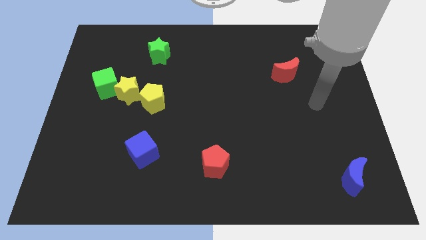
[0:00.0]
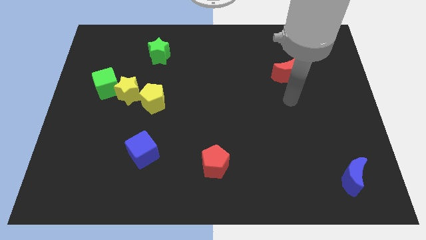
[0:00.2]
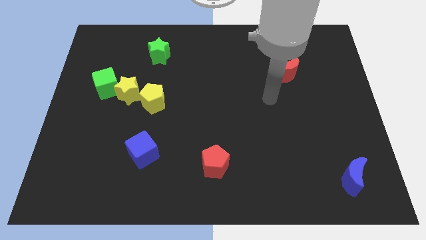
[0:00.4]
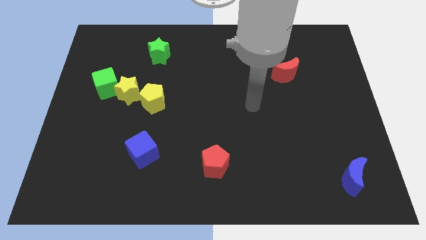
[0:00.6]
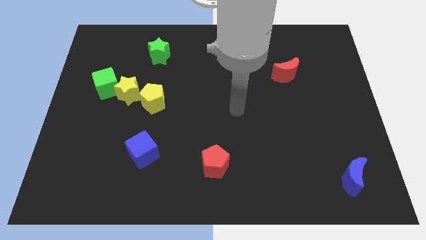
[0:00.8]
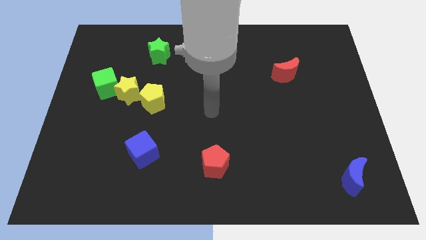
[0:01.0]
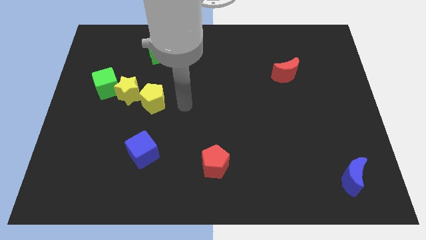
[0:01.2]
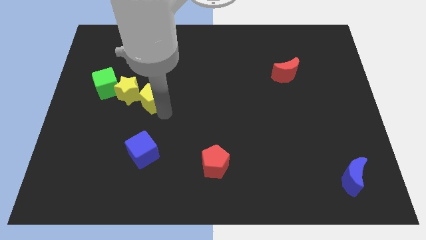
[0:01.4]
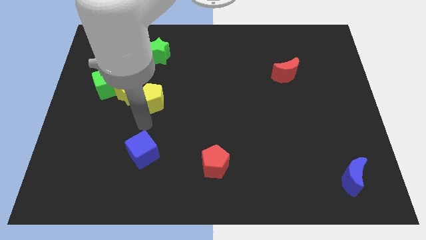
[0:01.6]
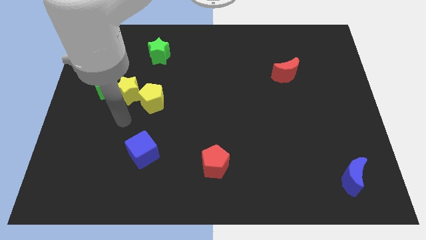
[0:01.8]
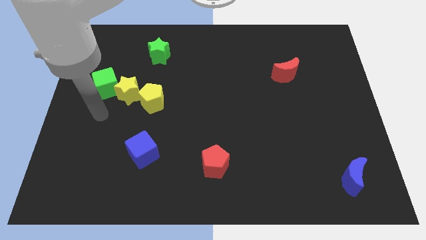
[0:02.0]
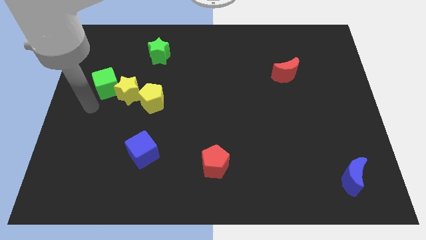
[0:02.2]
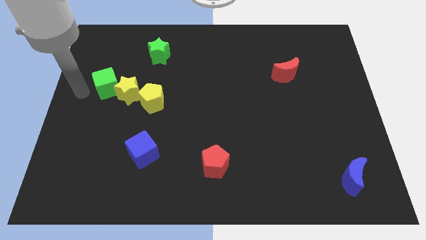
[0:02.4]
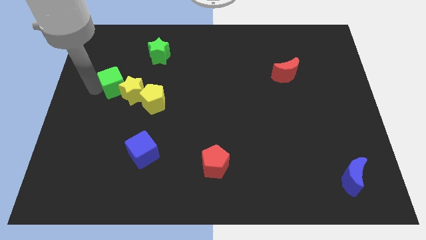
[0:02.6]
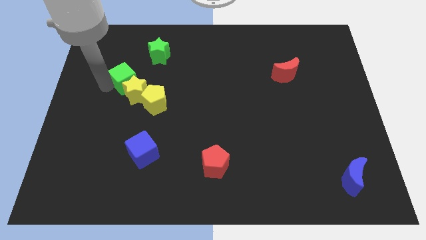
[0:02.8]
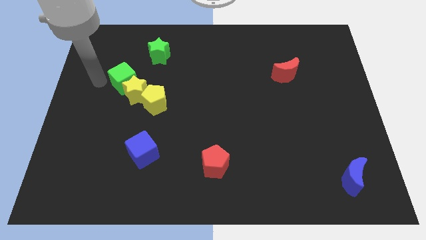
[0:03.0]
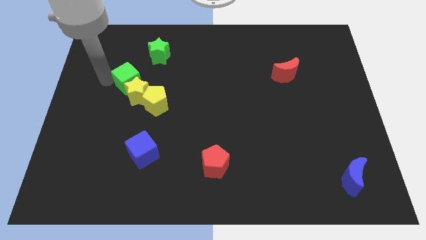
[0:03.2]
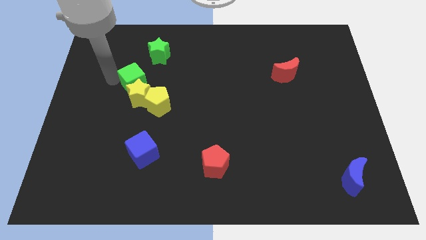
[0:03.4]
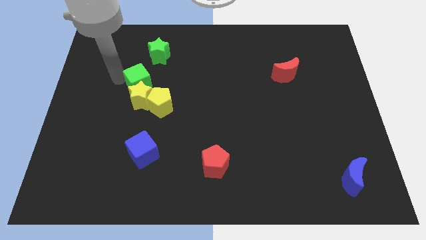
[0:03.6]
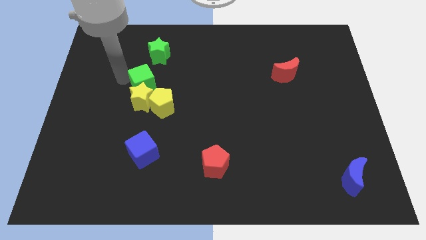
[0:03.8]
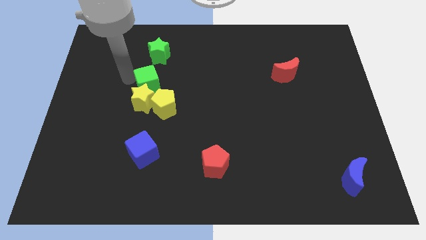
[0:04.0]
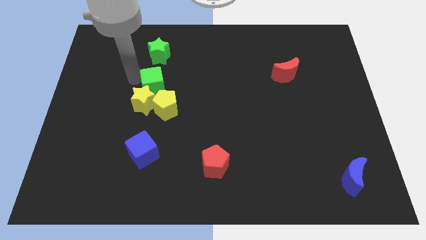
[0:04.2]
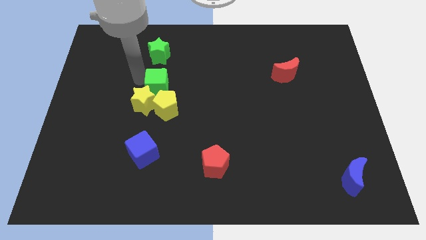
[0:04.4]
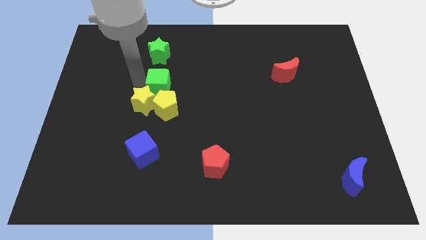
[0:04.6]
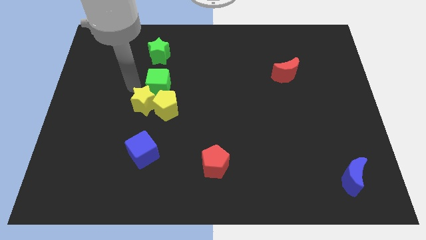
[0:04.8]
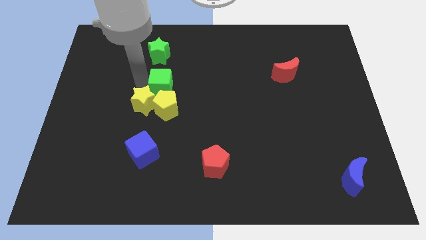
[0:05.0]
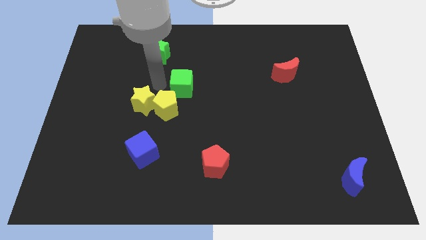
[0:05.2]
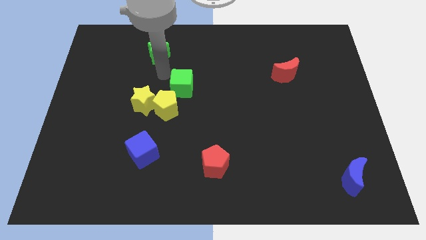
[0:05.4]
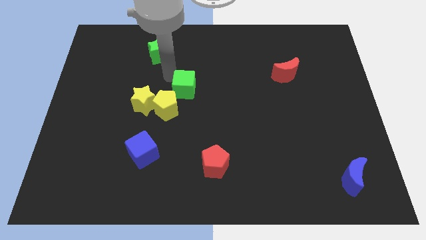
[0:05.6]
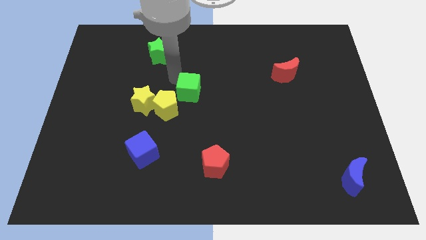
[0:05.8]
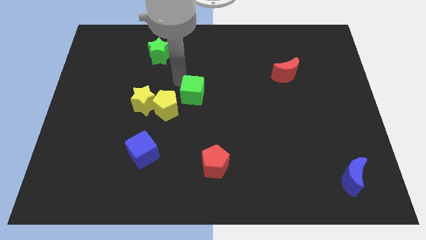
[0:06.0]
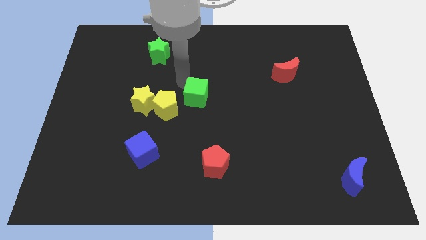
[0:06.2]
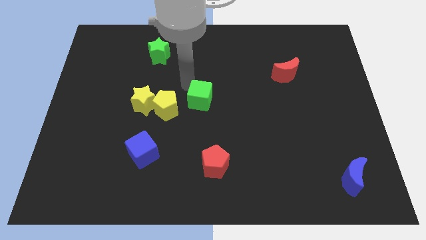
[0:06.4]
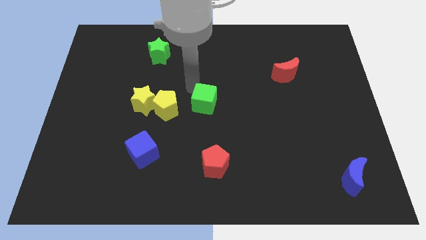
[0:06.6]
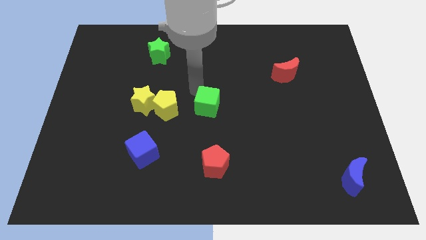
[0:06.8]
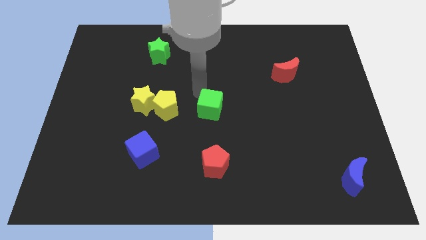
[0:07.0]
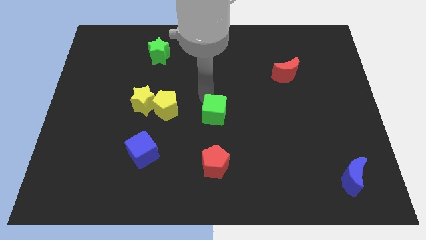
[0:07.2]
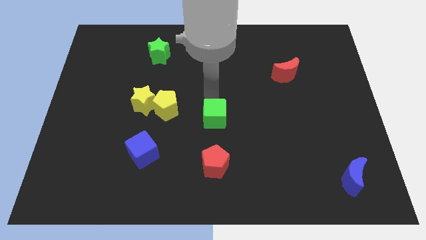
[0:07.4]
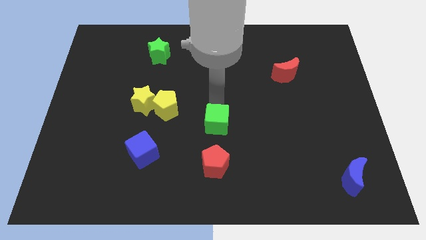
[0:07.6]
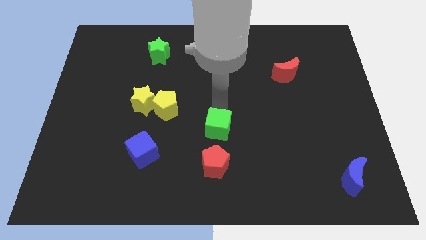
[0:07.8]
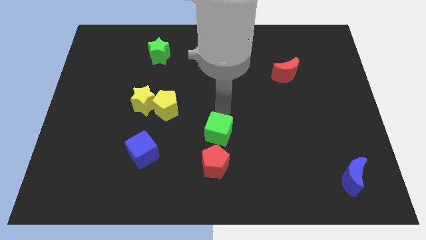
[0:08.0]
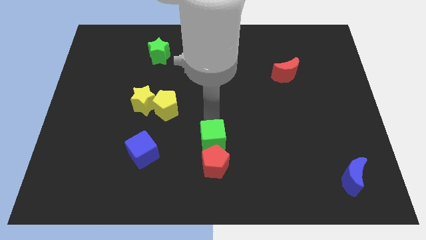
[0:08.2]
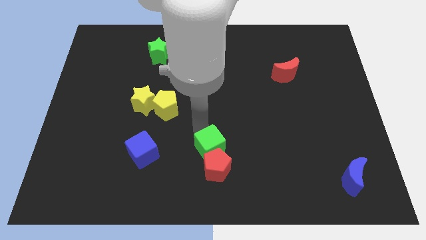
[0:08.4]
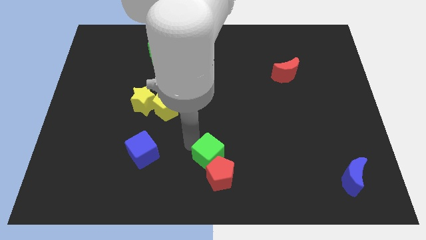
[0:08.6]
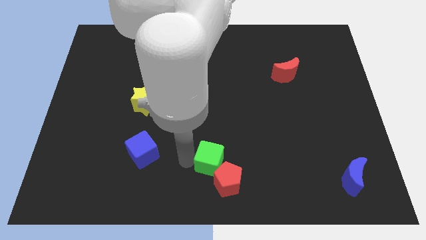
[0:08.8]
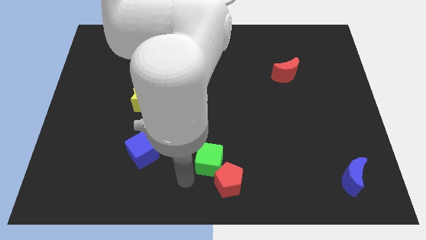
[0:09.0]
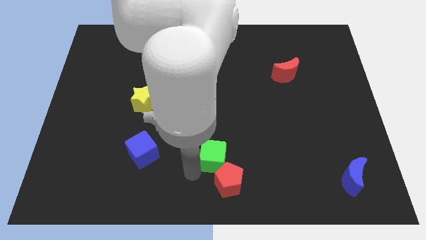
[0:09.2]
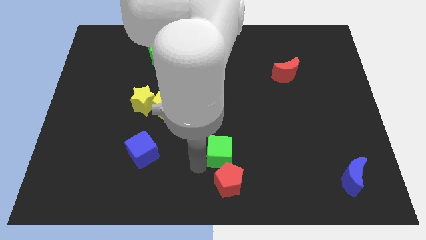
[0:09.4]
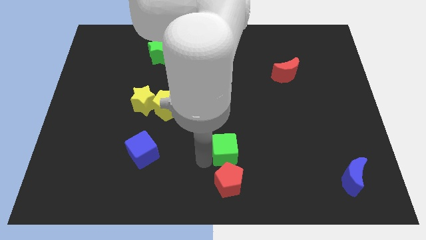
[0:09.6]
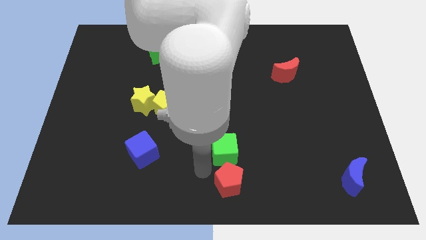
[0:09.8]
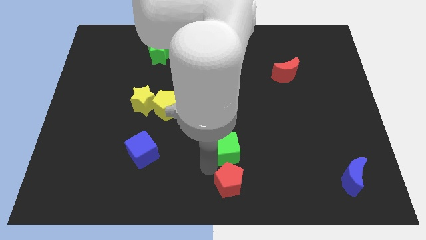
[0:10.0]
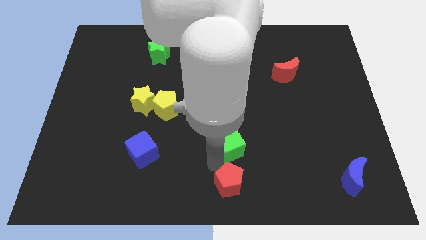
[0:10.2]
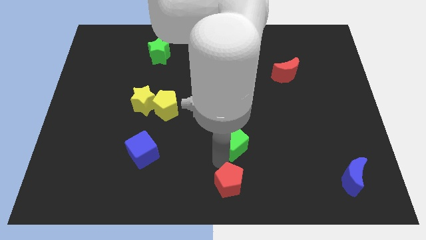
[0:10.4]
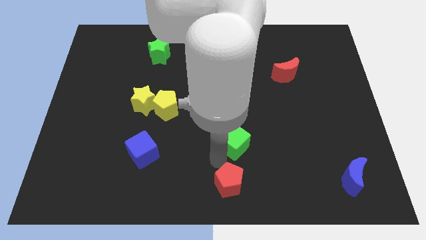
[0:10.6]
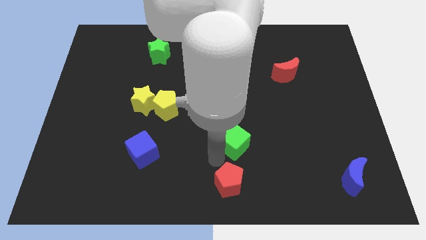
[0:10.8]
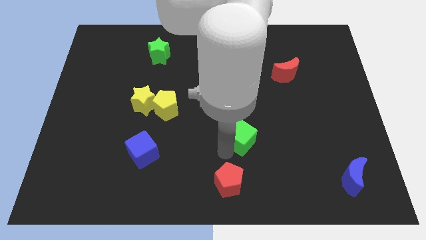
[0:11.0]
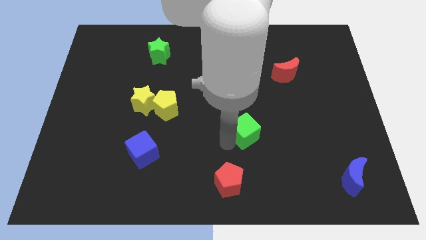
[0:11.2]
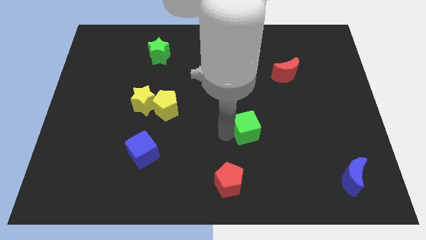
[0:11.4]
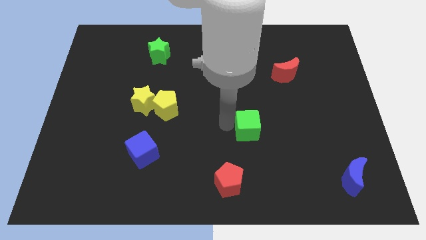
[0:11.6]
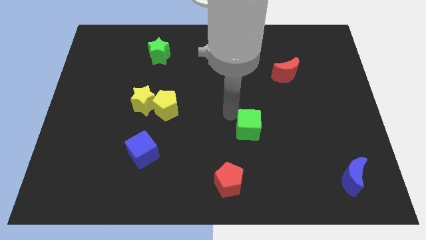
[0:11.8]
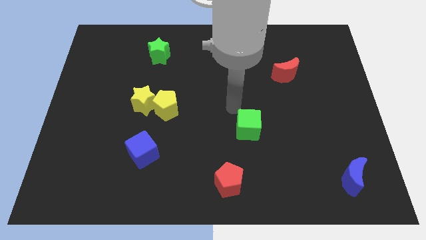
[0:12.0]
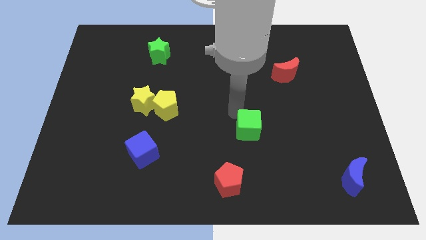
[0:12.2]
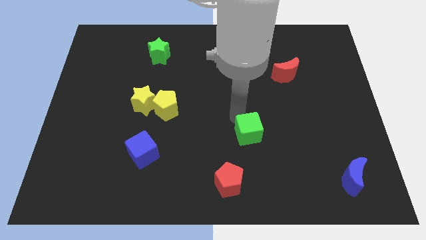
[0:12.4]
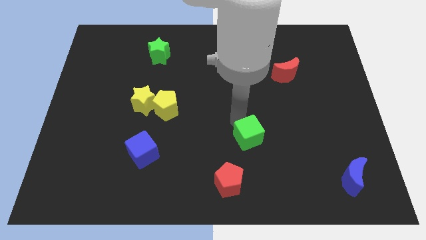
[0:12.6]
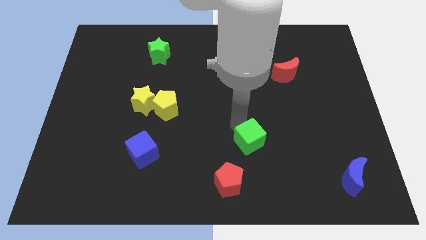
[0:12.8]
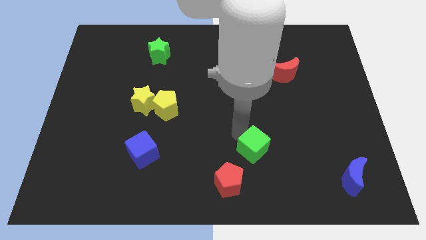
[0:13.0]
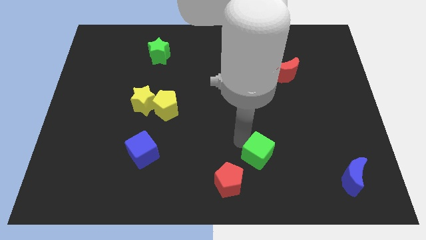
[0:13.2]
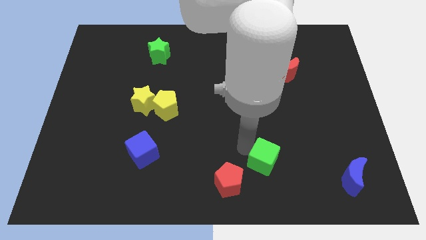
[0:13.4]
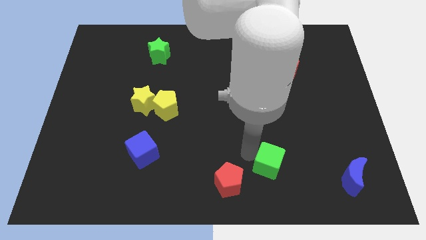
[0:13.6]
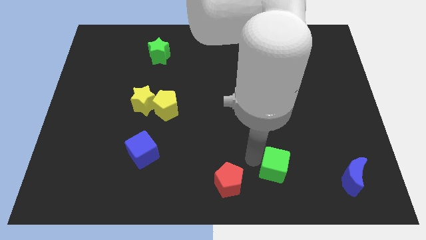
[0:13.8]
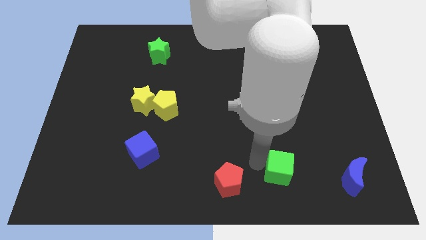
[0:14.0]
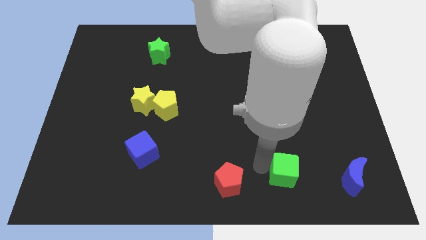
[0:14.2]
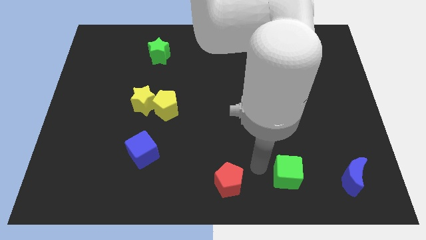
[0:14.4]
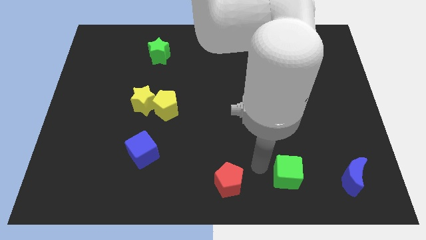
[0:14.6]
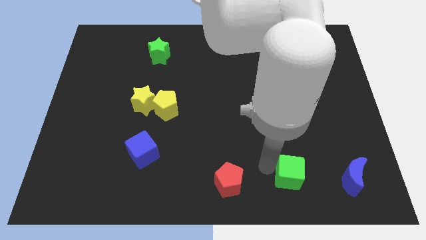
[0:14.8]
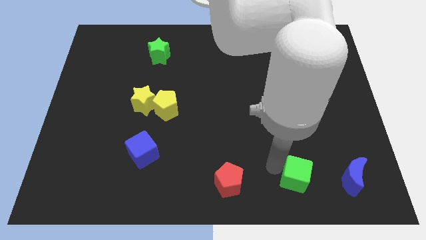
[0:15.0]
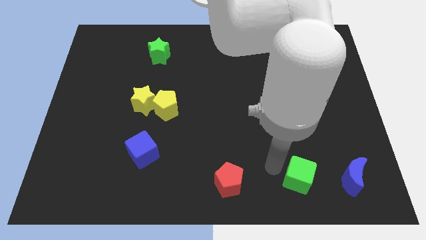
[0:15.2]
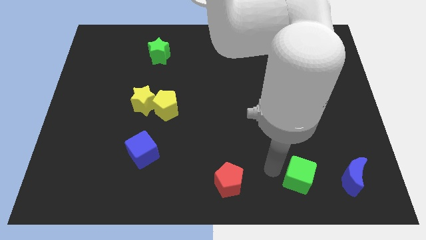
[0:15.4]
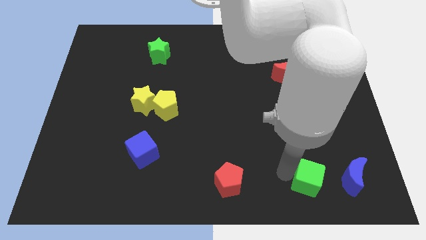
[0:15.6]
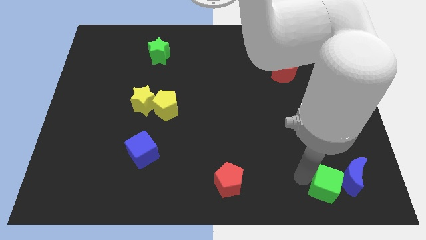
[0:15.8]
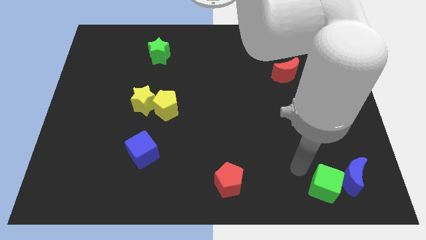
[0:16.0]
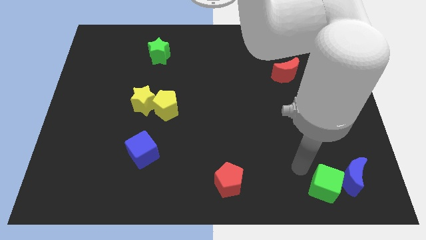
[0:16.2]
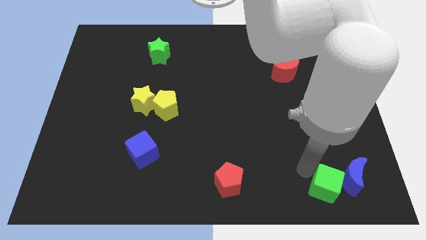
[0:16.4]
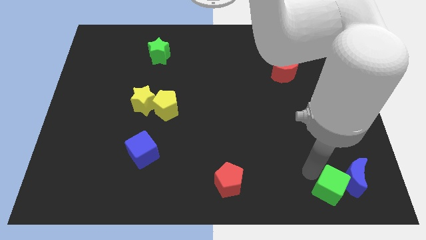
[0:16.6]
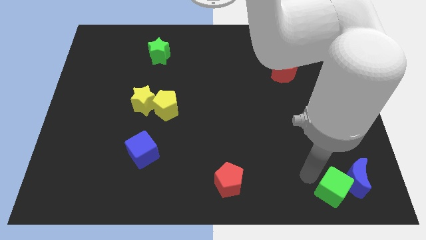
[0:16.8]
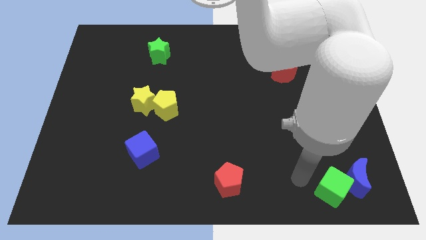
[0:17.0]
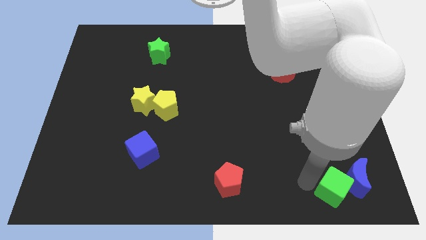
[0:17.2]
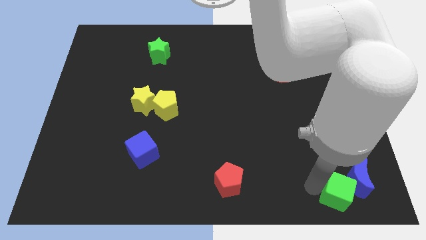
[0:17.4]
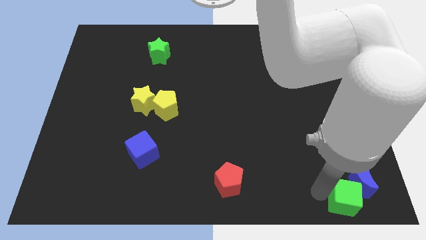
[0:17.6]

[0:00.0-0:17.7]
push the green cube to the bottom right
